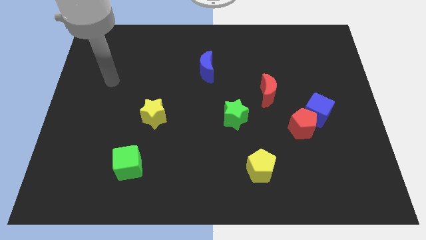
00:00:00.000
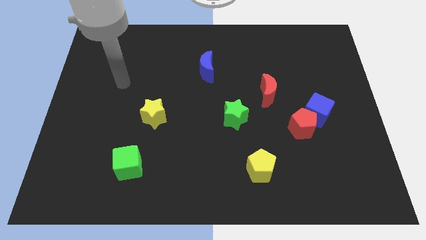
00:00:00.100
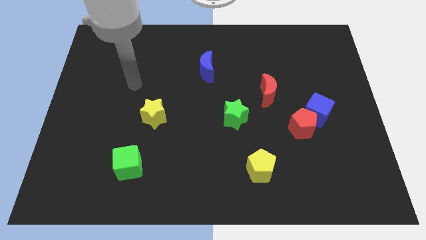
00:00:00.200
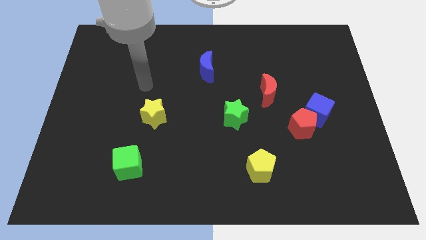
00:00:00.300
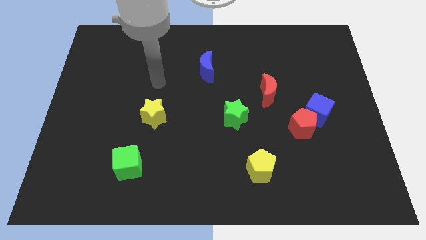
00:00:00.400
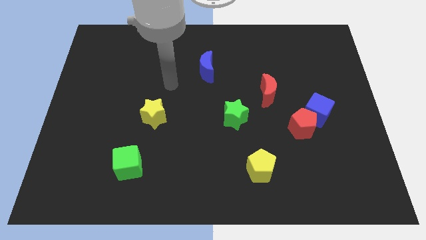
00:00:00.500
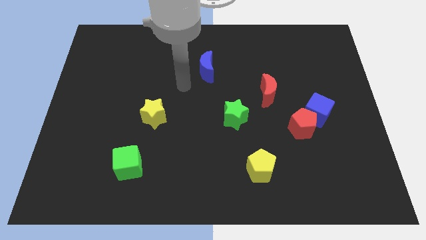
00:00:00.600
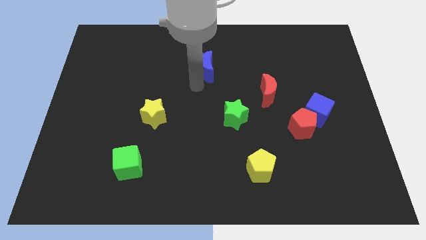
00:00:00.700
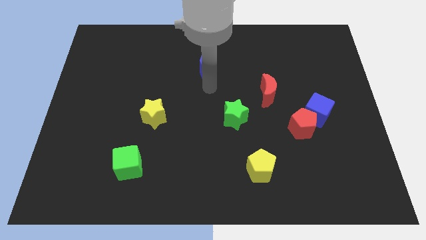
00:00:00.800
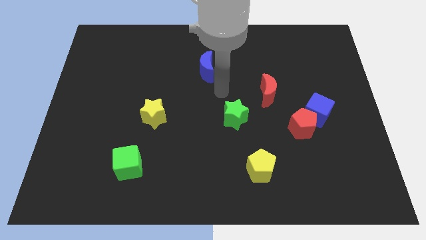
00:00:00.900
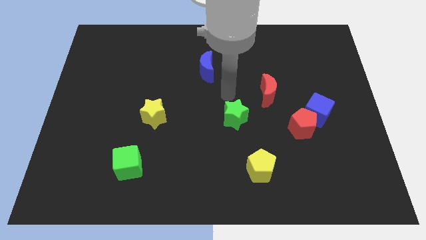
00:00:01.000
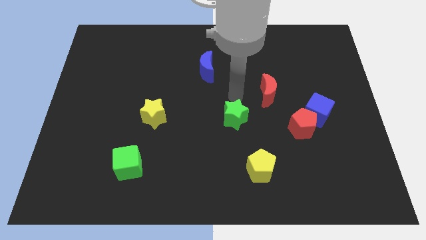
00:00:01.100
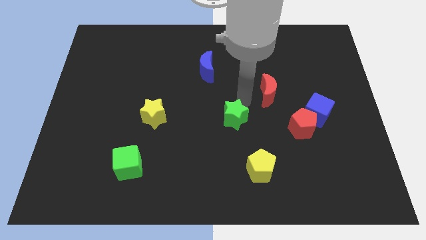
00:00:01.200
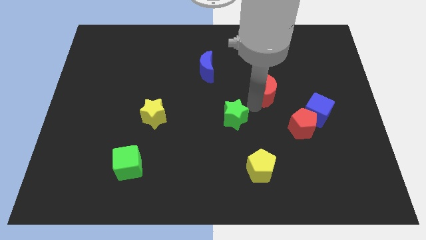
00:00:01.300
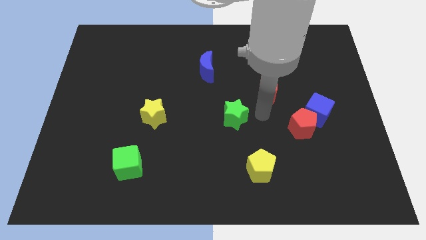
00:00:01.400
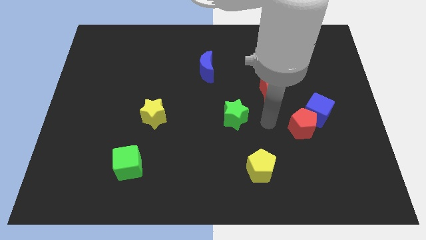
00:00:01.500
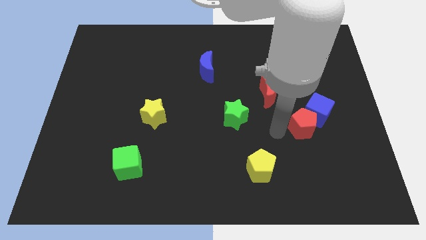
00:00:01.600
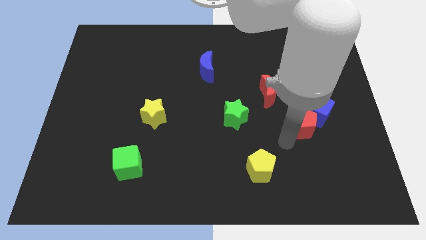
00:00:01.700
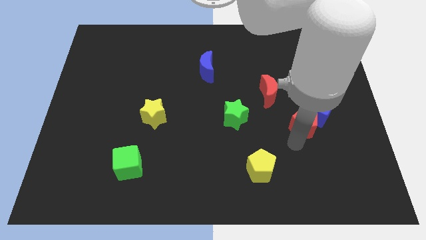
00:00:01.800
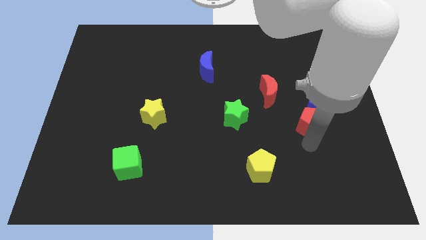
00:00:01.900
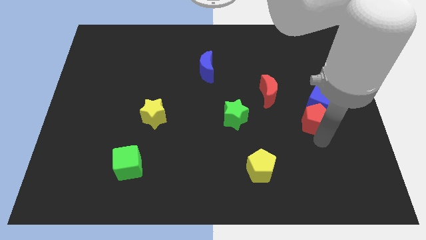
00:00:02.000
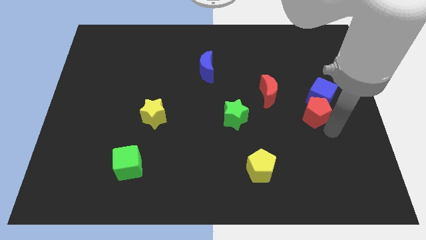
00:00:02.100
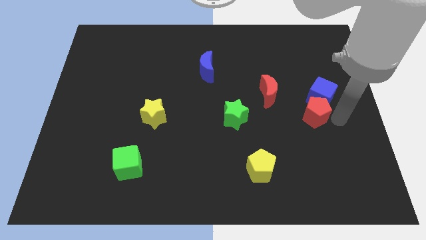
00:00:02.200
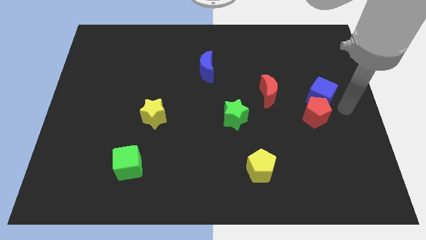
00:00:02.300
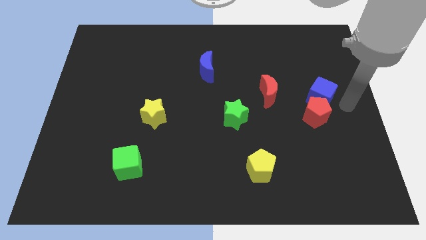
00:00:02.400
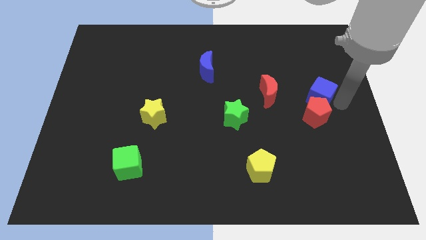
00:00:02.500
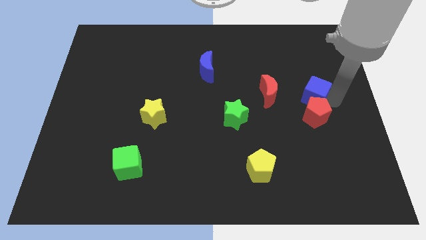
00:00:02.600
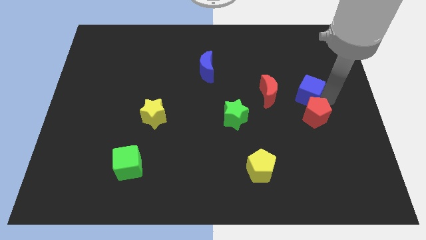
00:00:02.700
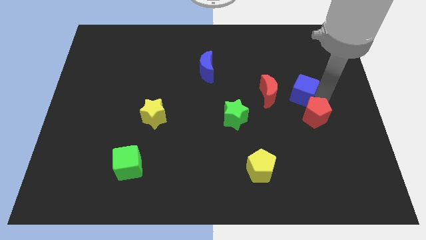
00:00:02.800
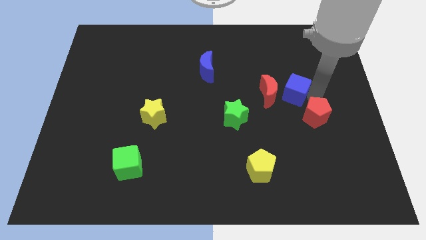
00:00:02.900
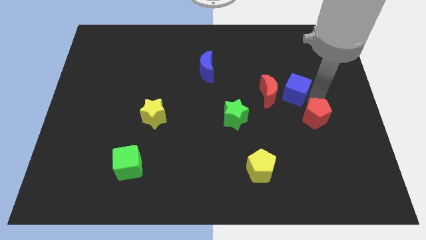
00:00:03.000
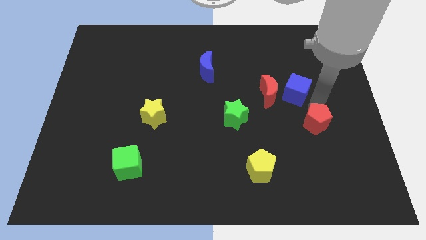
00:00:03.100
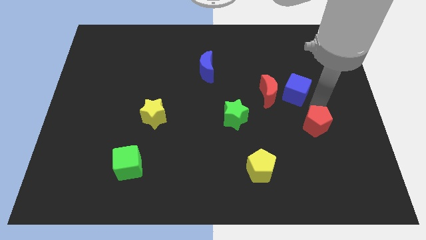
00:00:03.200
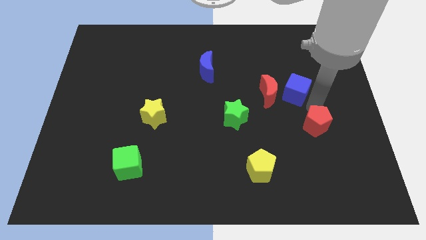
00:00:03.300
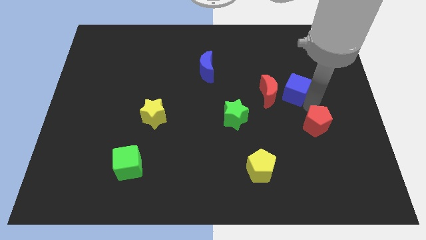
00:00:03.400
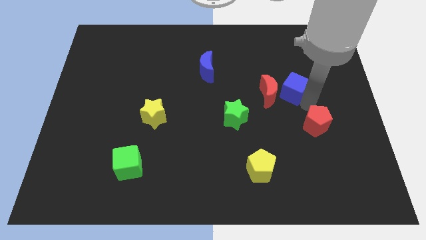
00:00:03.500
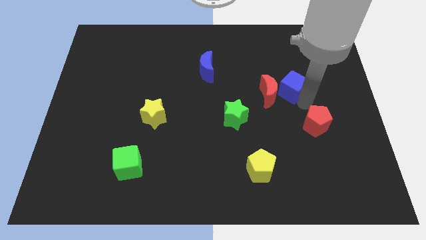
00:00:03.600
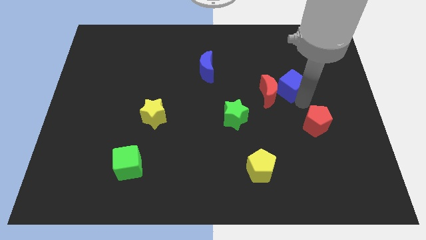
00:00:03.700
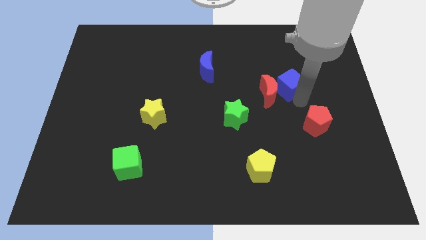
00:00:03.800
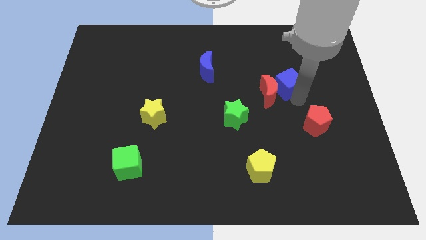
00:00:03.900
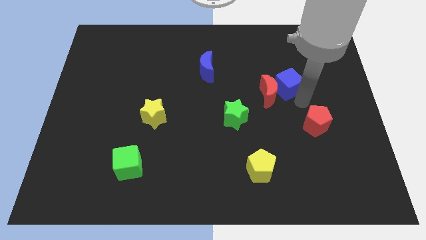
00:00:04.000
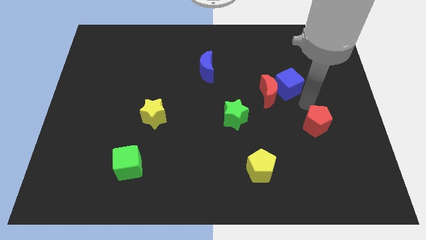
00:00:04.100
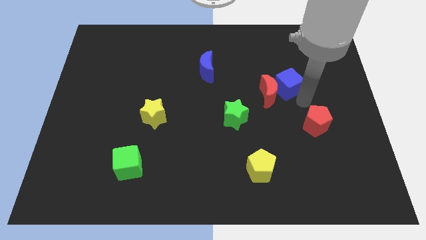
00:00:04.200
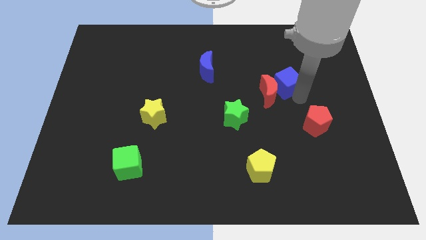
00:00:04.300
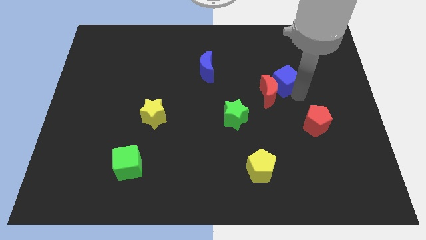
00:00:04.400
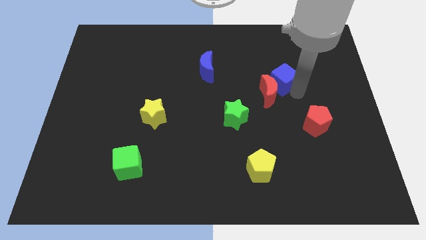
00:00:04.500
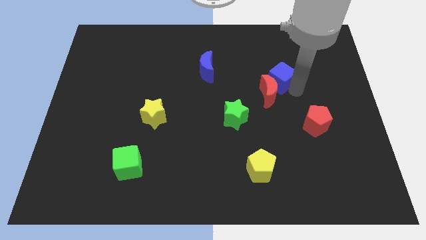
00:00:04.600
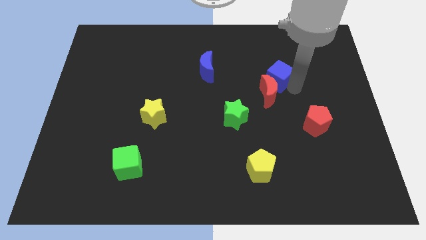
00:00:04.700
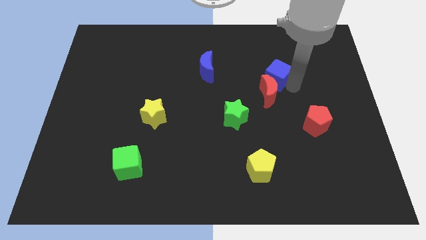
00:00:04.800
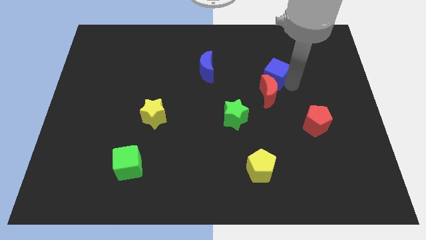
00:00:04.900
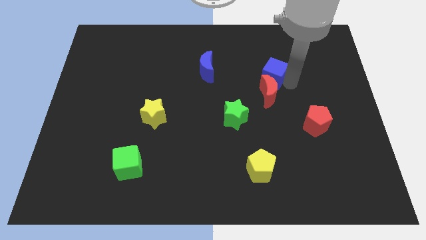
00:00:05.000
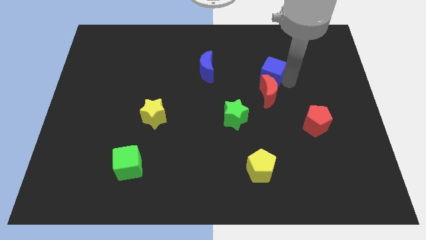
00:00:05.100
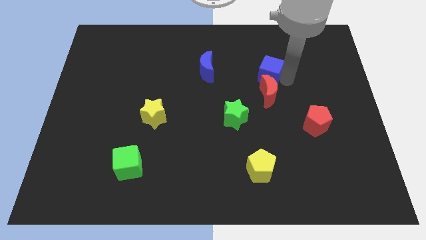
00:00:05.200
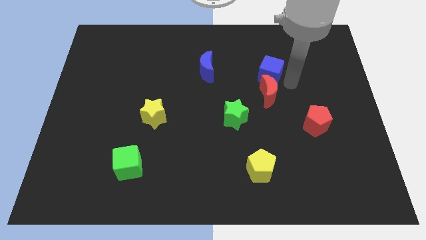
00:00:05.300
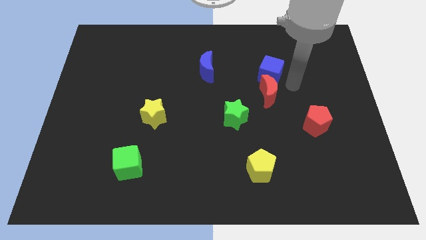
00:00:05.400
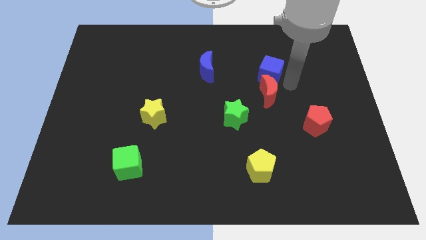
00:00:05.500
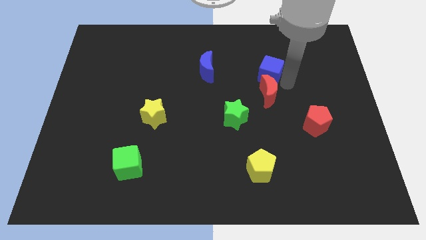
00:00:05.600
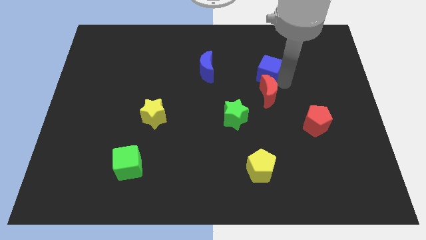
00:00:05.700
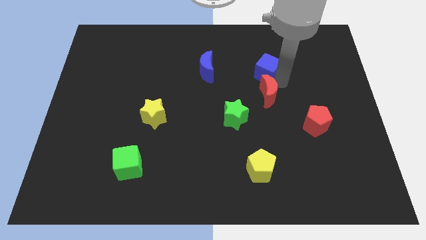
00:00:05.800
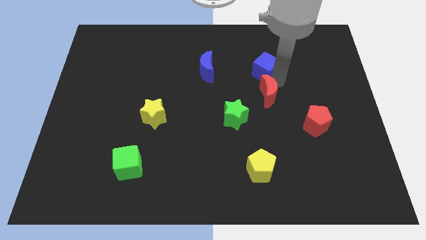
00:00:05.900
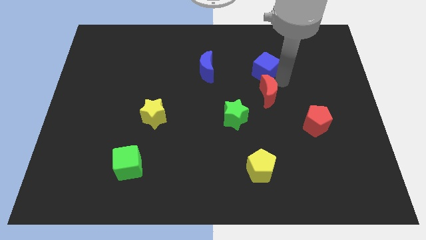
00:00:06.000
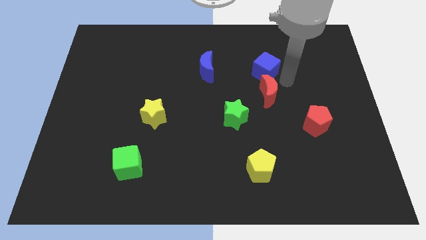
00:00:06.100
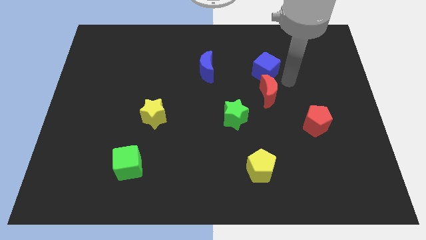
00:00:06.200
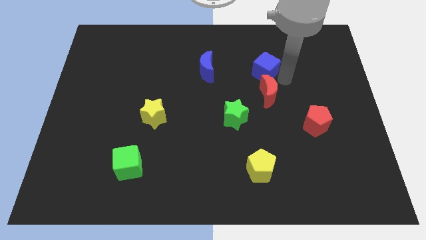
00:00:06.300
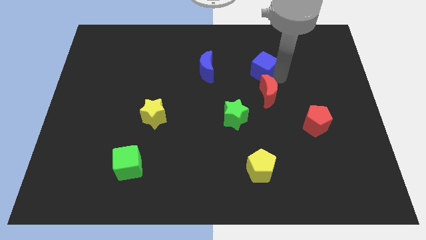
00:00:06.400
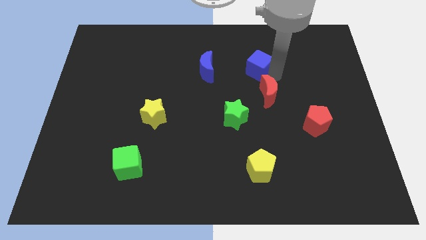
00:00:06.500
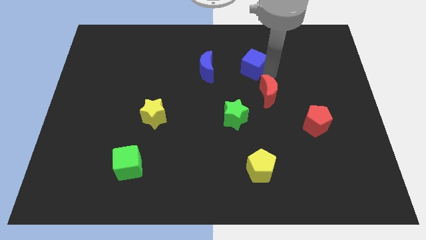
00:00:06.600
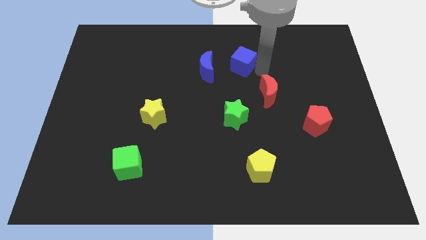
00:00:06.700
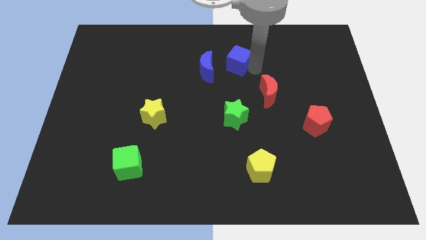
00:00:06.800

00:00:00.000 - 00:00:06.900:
move the blue cube diagonally up and to the right of the blue moon
